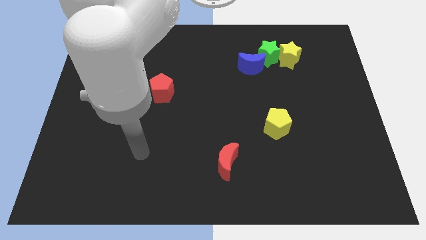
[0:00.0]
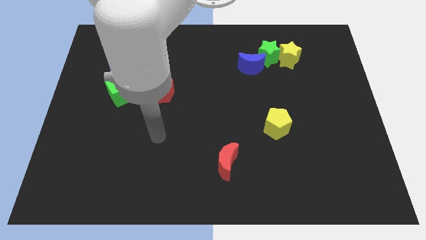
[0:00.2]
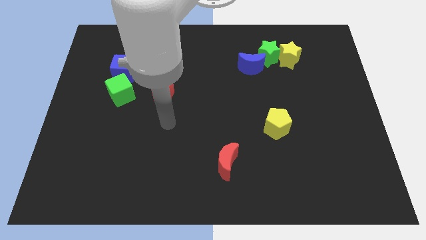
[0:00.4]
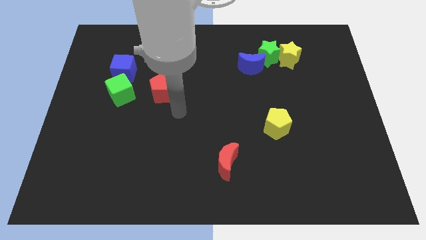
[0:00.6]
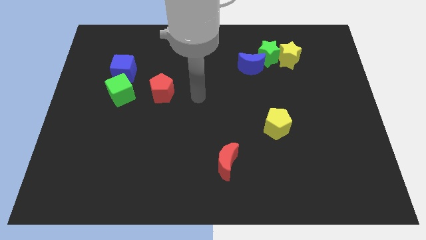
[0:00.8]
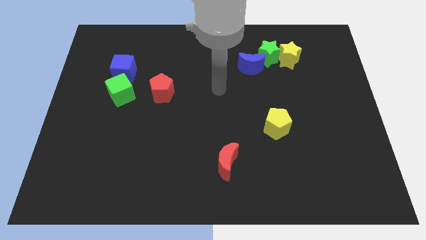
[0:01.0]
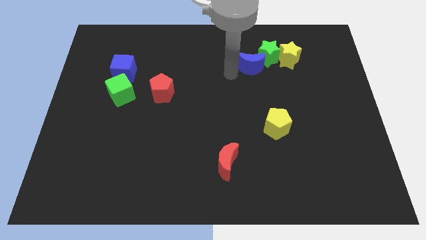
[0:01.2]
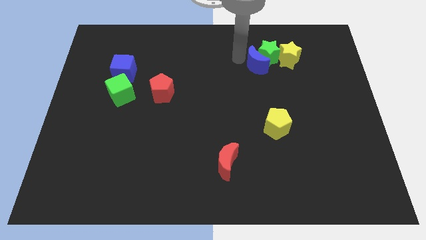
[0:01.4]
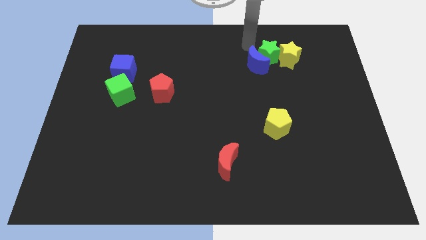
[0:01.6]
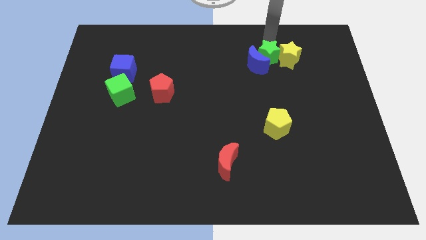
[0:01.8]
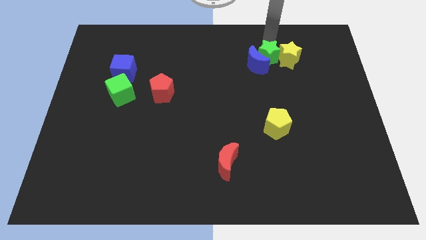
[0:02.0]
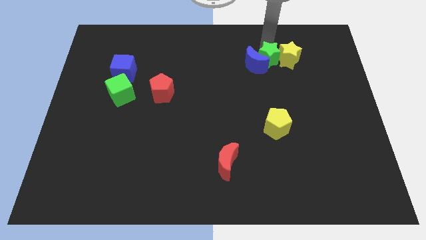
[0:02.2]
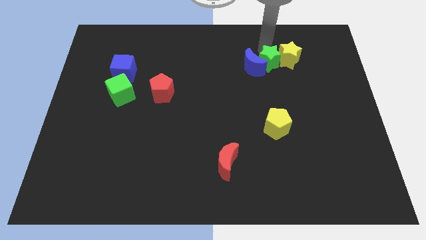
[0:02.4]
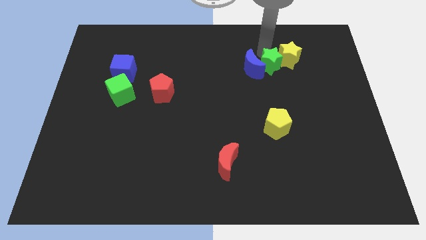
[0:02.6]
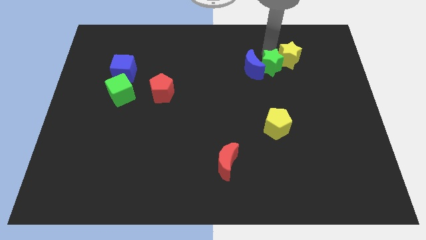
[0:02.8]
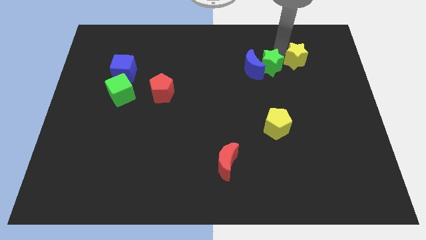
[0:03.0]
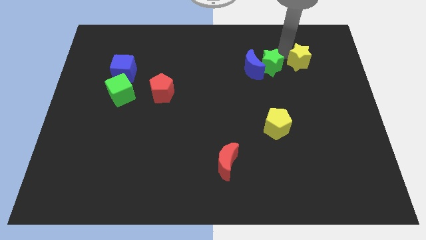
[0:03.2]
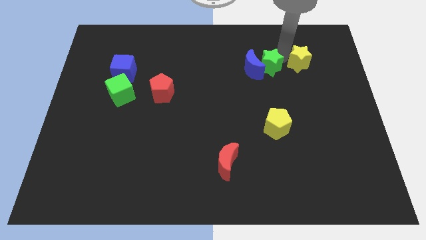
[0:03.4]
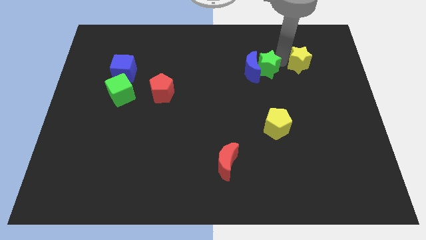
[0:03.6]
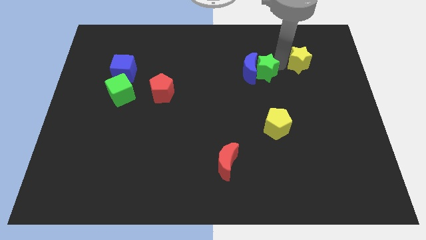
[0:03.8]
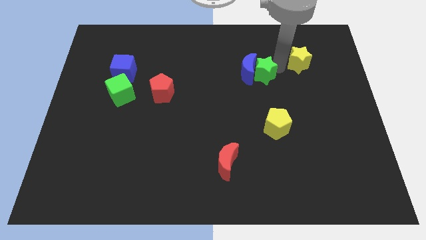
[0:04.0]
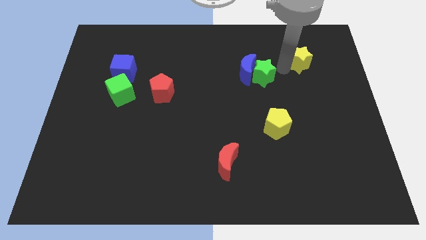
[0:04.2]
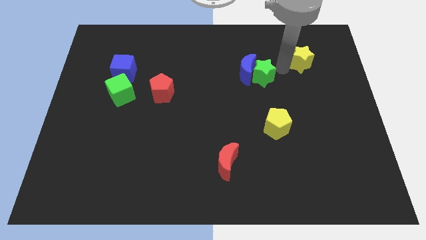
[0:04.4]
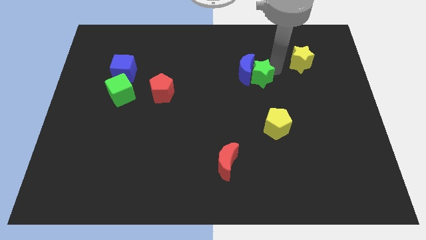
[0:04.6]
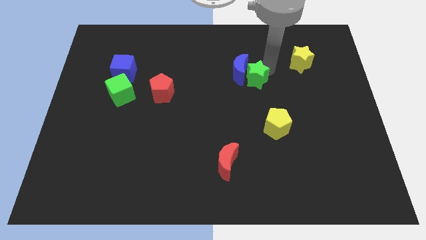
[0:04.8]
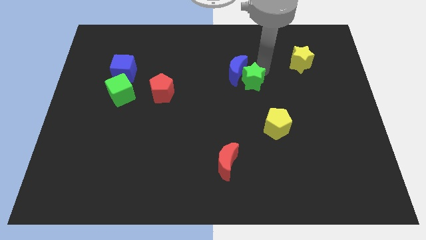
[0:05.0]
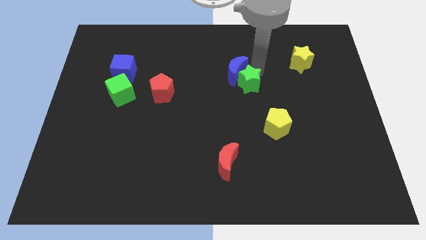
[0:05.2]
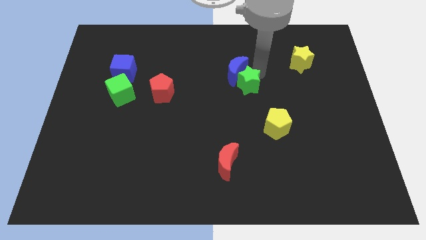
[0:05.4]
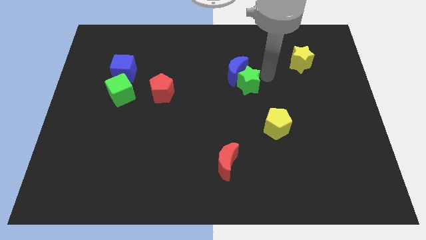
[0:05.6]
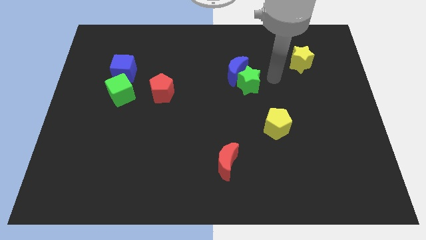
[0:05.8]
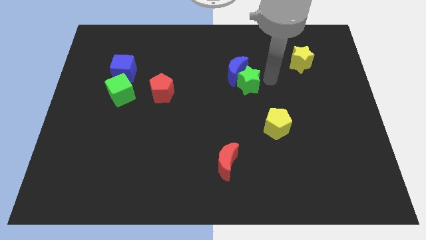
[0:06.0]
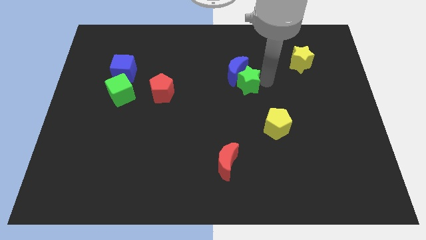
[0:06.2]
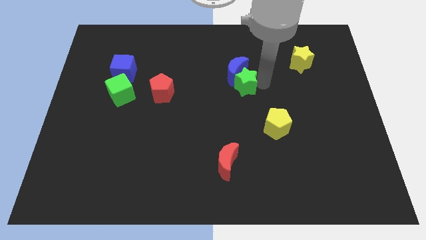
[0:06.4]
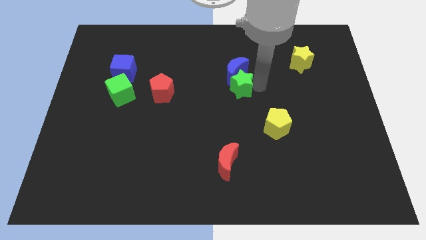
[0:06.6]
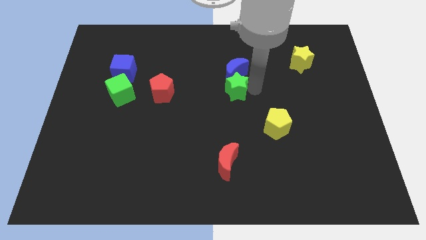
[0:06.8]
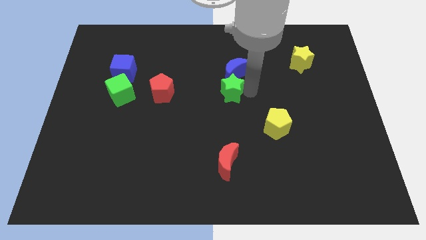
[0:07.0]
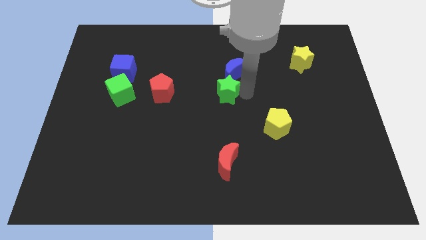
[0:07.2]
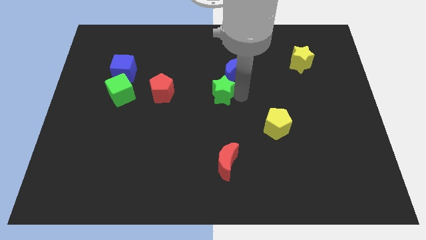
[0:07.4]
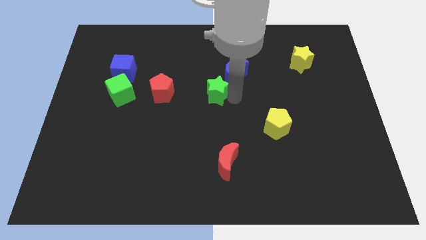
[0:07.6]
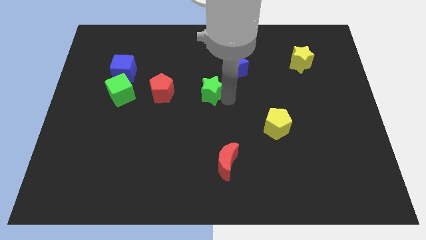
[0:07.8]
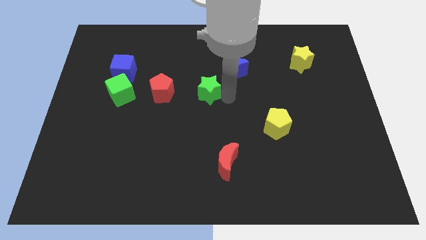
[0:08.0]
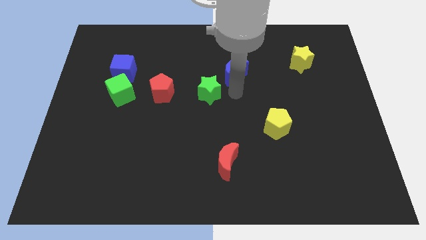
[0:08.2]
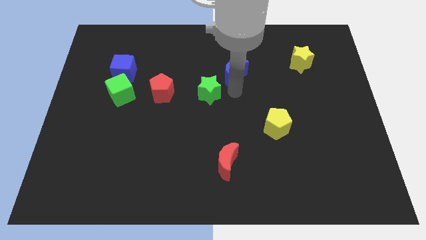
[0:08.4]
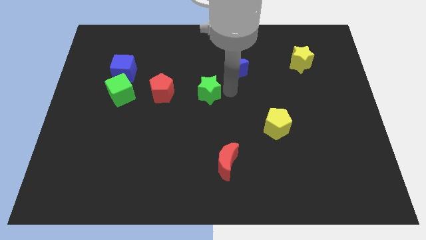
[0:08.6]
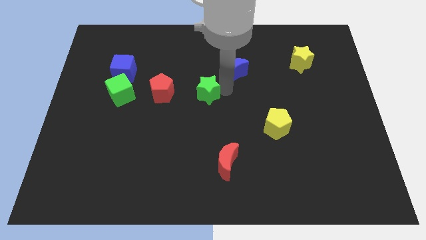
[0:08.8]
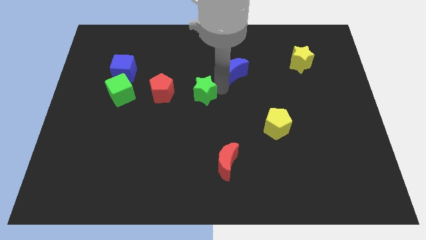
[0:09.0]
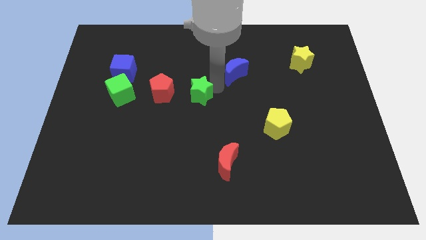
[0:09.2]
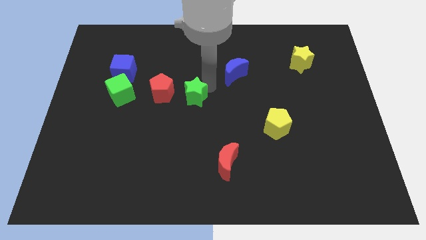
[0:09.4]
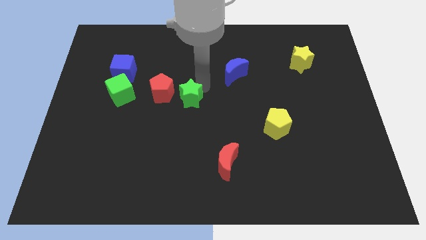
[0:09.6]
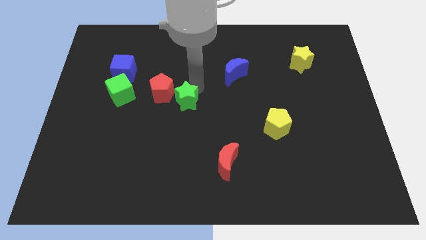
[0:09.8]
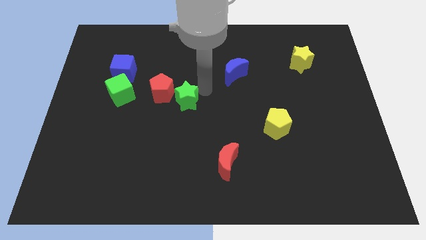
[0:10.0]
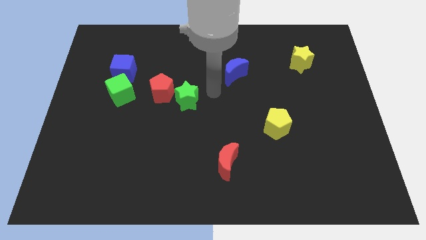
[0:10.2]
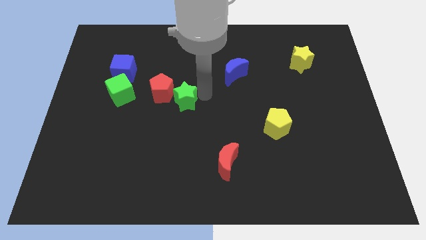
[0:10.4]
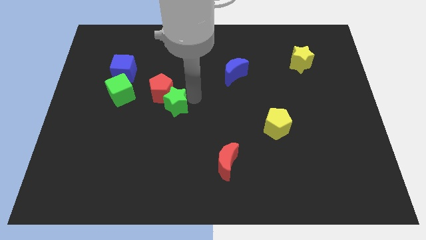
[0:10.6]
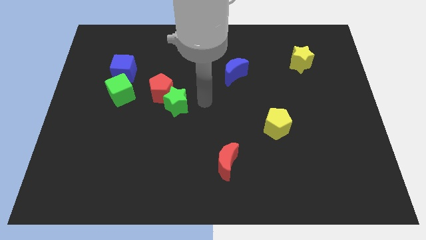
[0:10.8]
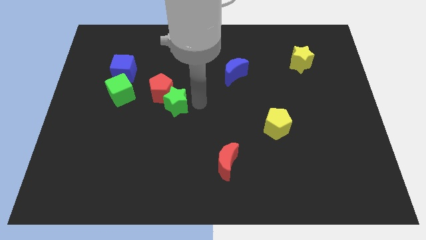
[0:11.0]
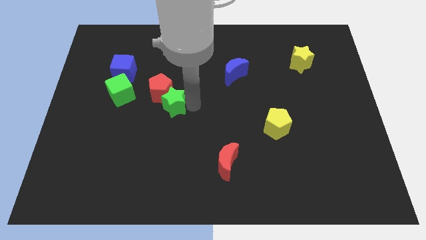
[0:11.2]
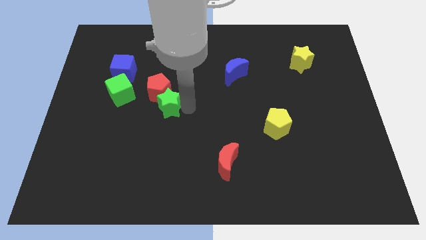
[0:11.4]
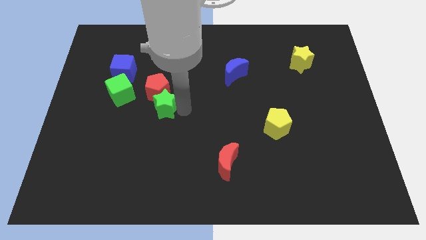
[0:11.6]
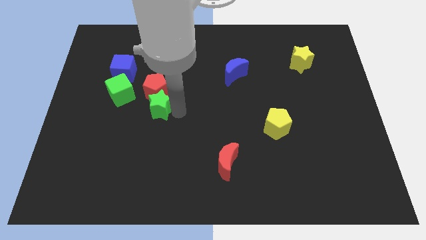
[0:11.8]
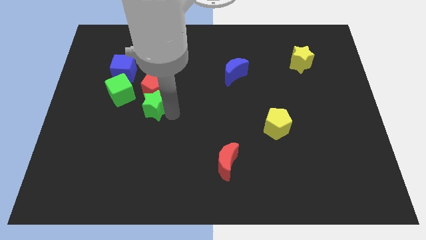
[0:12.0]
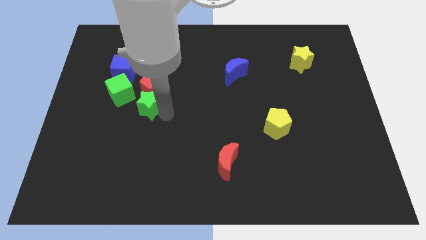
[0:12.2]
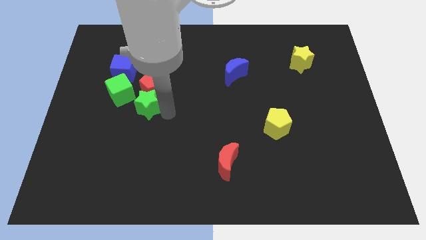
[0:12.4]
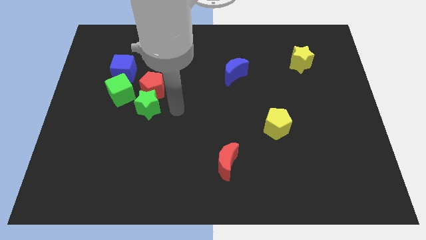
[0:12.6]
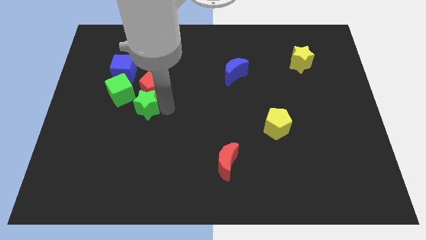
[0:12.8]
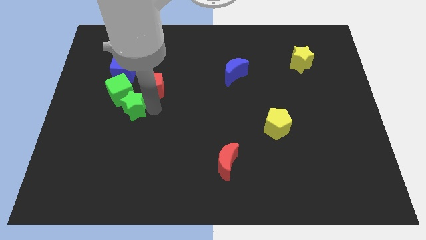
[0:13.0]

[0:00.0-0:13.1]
move the green star to the bottom of the blue cube

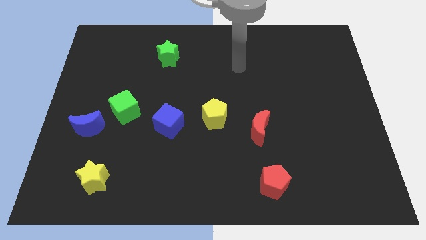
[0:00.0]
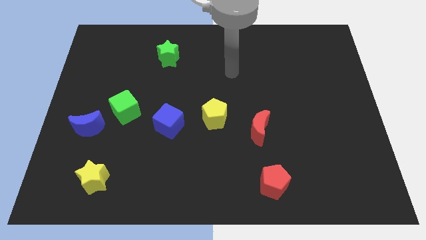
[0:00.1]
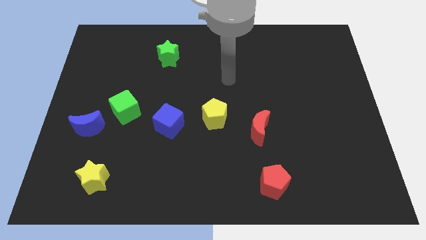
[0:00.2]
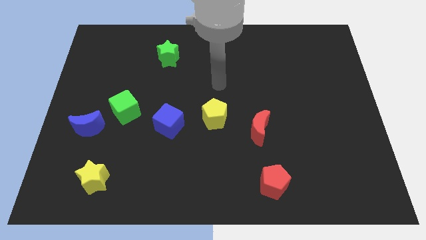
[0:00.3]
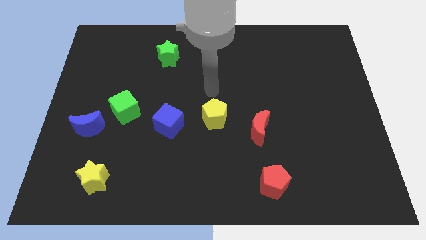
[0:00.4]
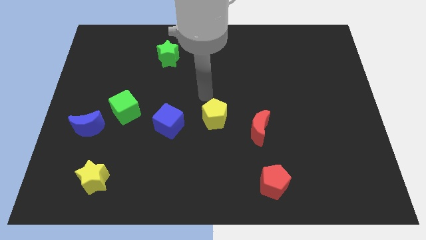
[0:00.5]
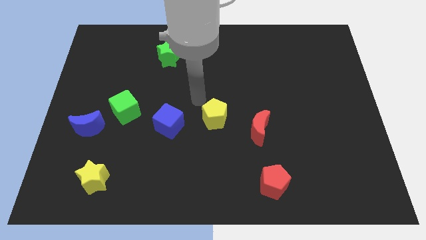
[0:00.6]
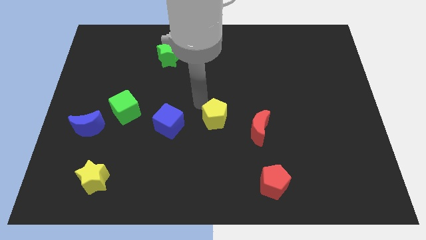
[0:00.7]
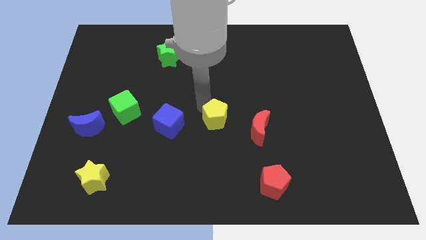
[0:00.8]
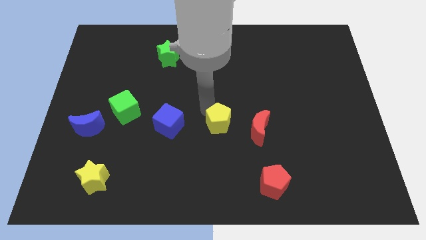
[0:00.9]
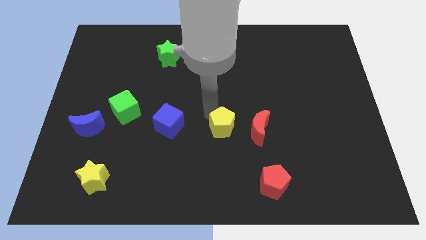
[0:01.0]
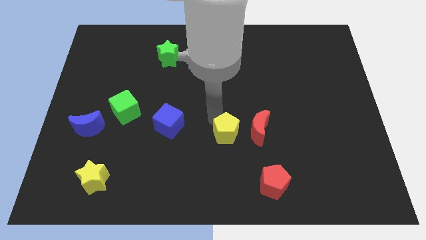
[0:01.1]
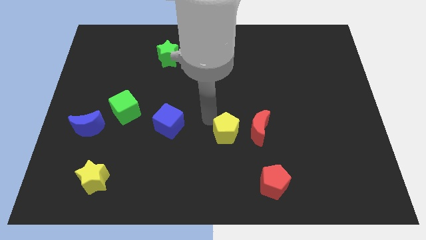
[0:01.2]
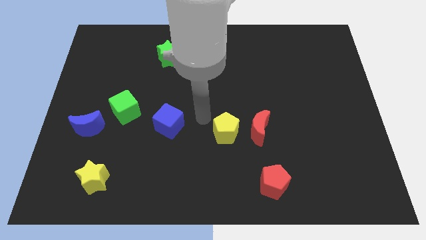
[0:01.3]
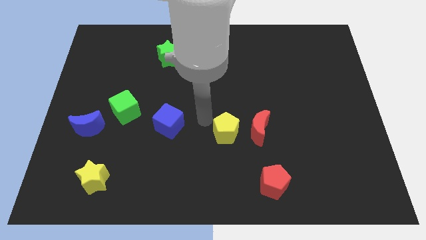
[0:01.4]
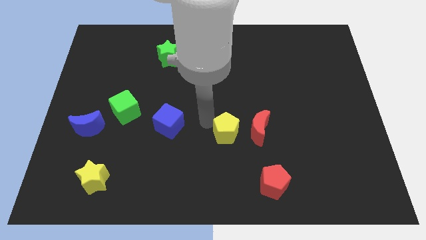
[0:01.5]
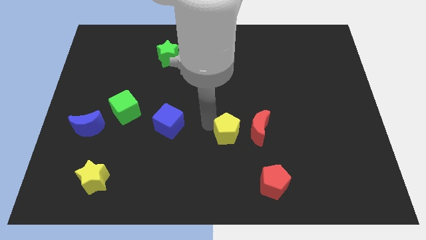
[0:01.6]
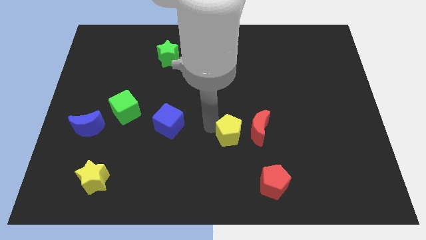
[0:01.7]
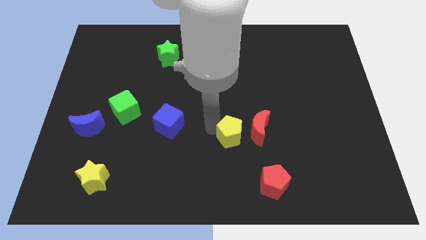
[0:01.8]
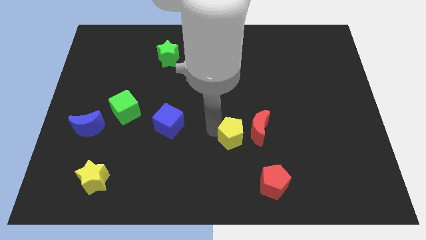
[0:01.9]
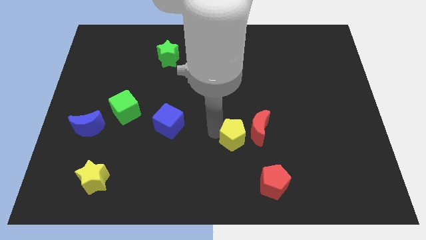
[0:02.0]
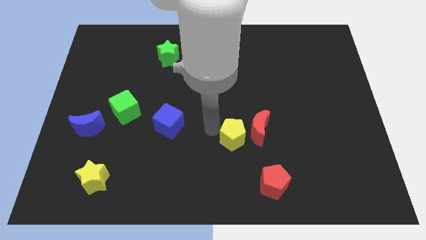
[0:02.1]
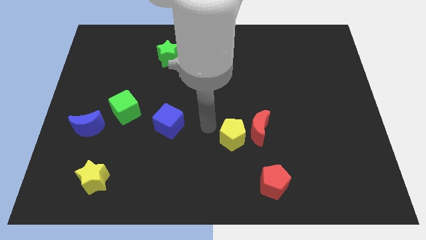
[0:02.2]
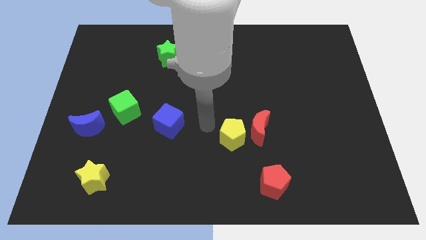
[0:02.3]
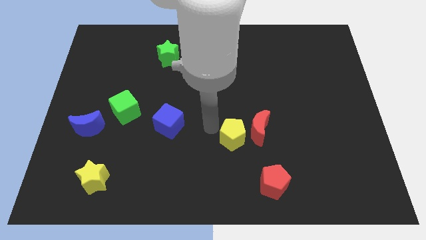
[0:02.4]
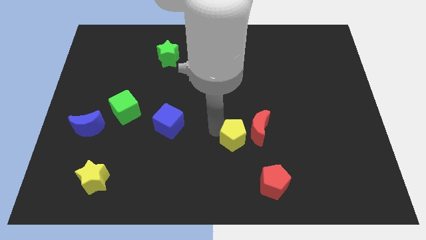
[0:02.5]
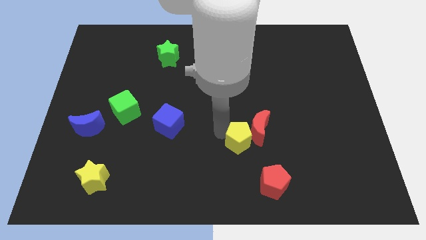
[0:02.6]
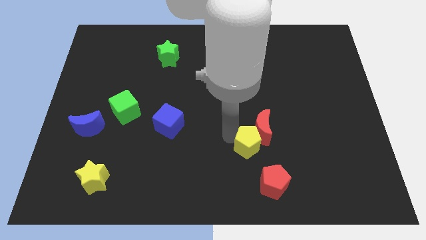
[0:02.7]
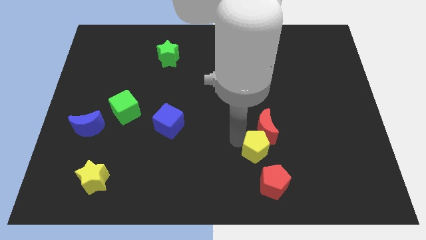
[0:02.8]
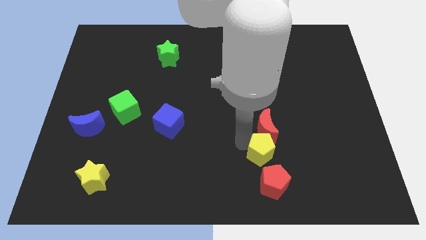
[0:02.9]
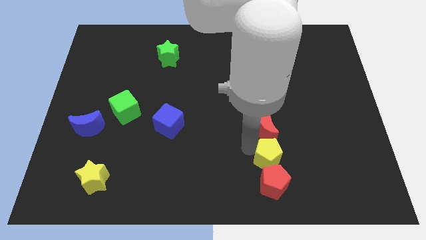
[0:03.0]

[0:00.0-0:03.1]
put the yellow pentagon diagonally down and to the right of the red moon
